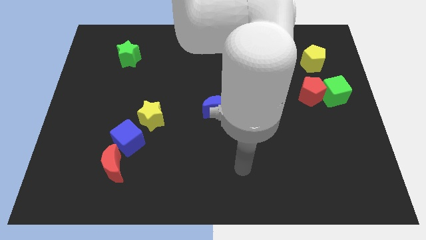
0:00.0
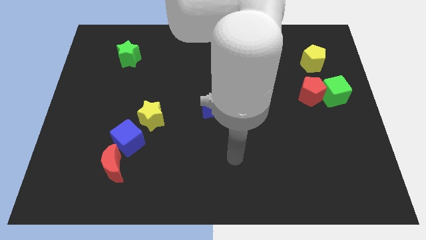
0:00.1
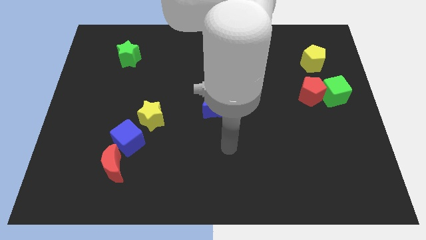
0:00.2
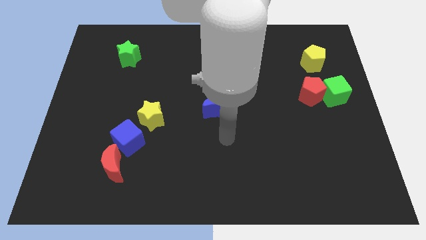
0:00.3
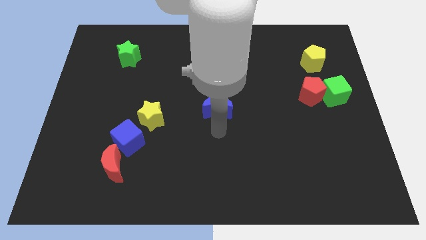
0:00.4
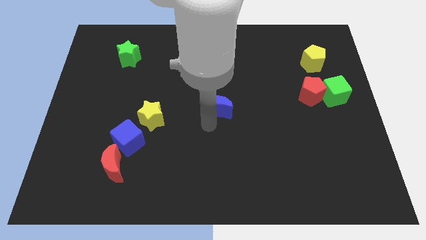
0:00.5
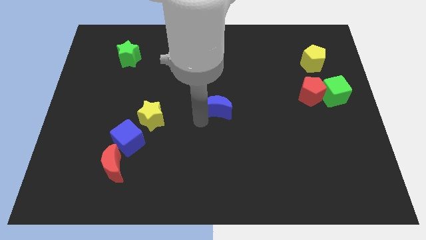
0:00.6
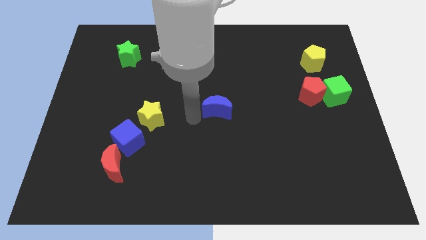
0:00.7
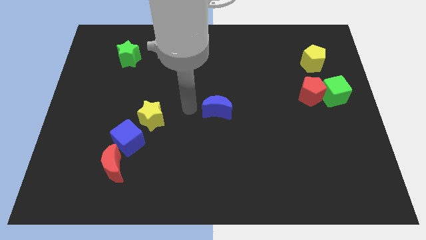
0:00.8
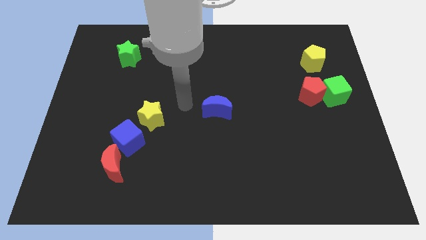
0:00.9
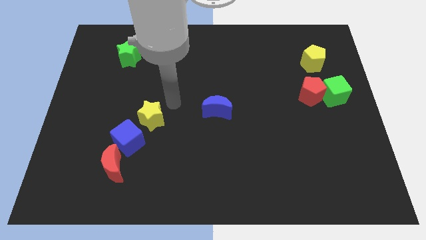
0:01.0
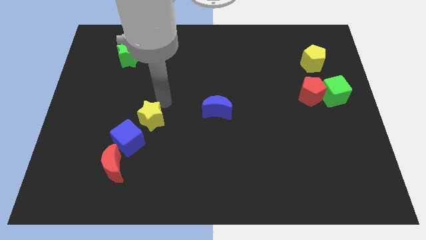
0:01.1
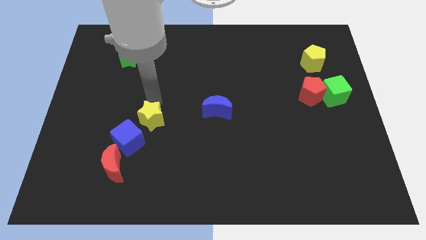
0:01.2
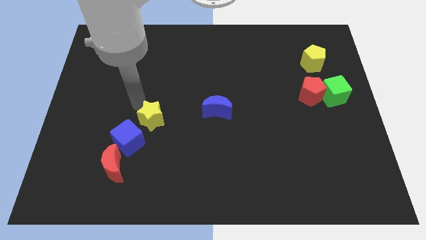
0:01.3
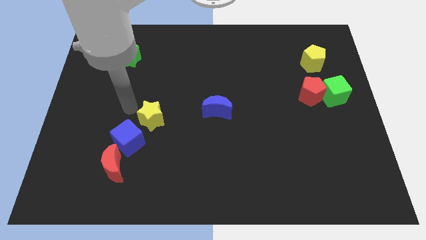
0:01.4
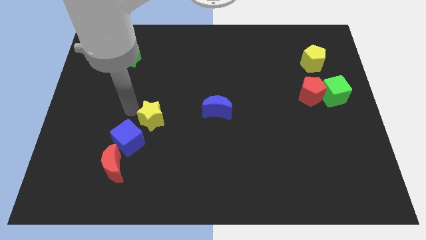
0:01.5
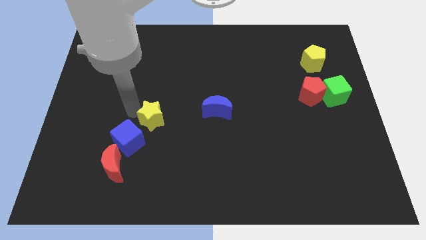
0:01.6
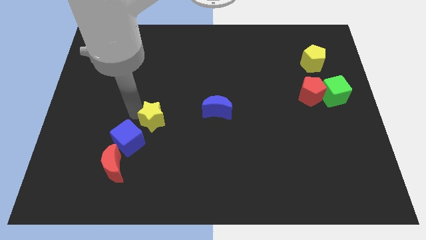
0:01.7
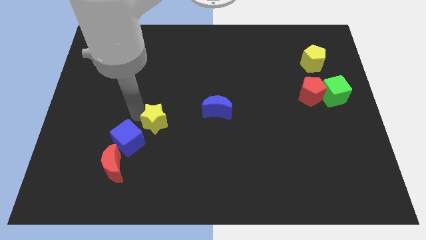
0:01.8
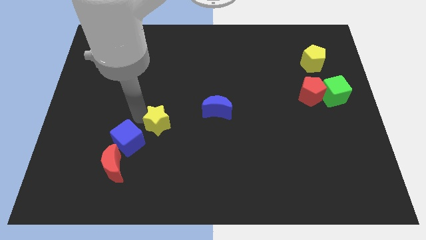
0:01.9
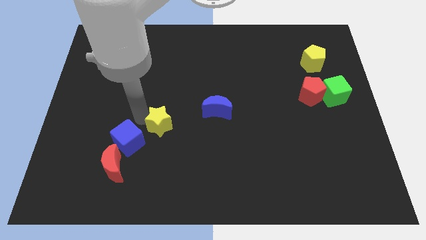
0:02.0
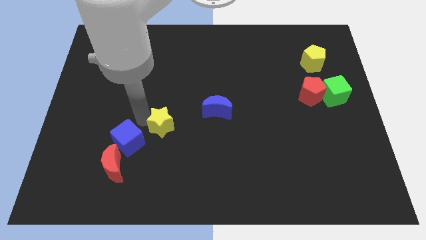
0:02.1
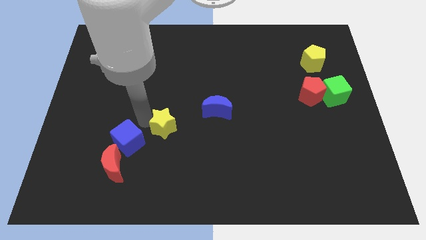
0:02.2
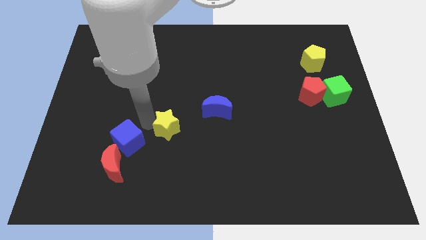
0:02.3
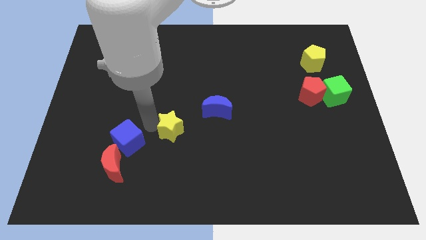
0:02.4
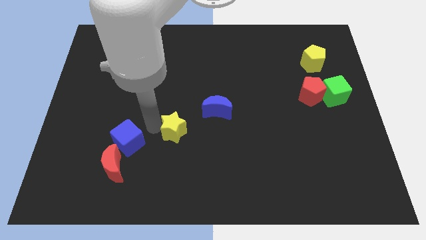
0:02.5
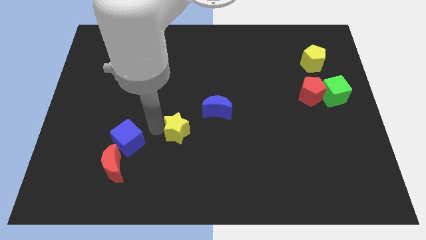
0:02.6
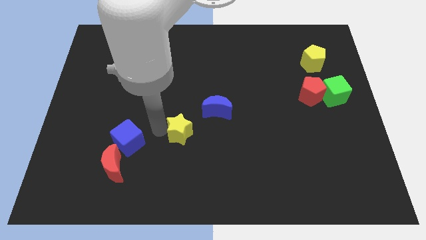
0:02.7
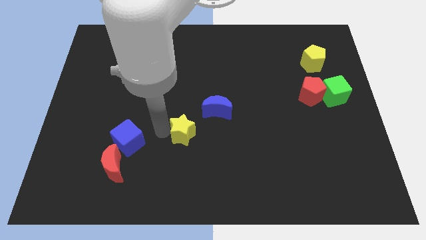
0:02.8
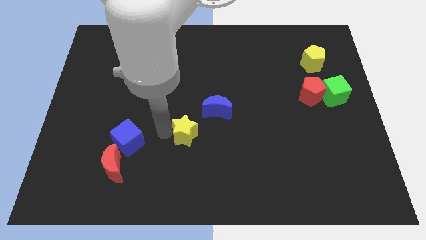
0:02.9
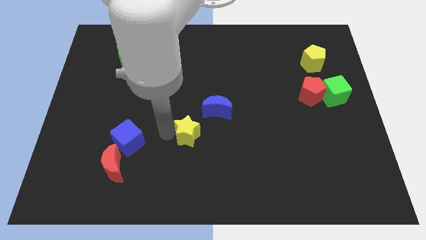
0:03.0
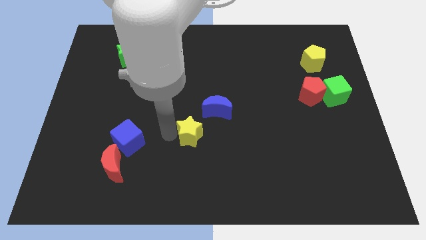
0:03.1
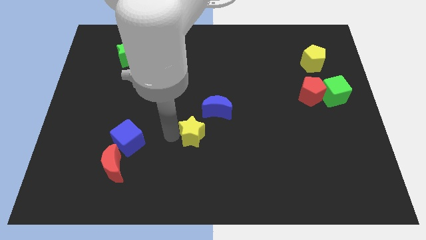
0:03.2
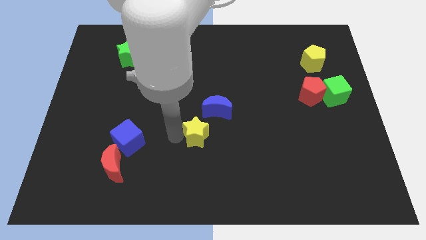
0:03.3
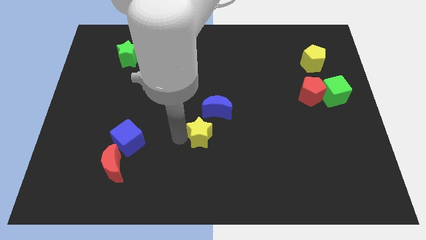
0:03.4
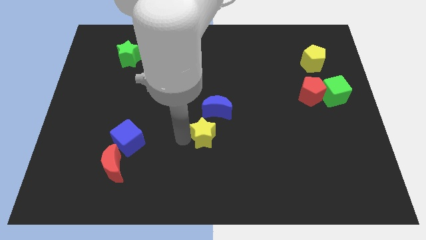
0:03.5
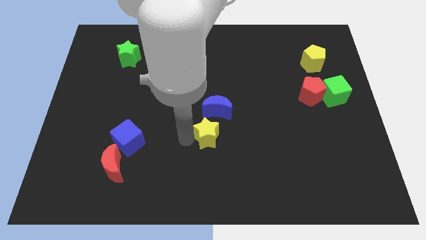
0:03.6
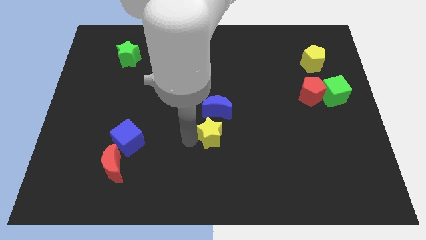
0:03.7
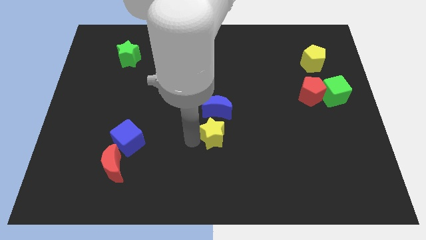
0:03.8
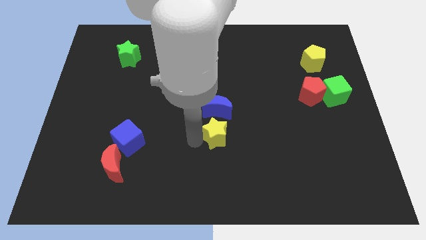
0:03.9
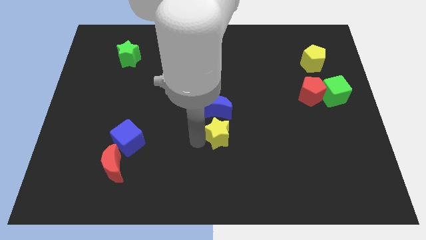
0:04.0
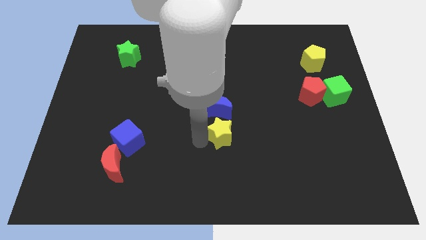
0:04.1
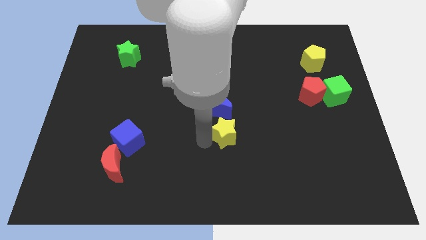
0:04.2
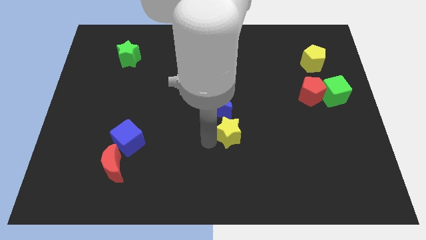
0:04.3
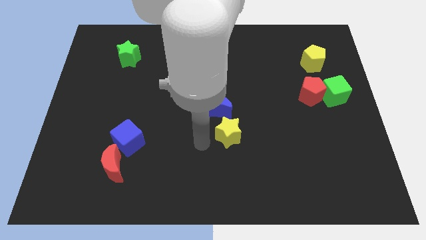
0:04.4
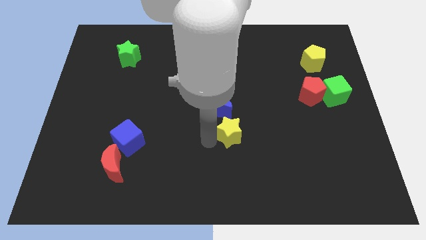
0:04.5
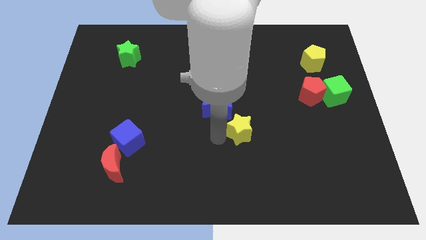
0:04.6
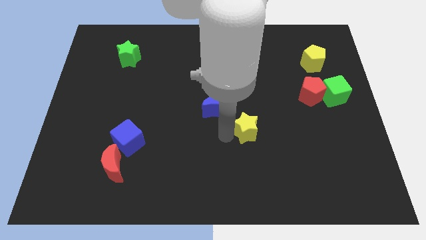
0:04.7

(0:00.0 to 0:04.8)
push the yellow star right

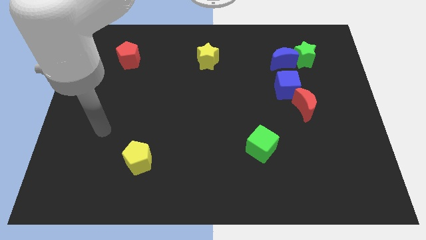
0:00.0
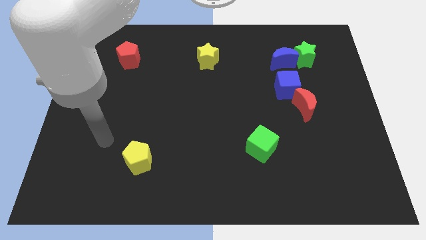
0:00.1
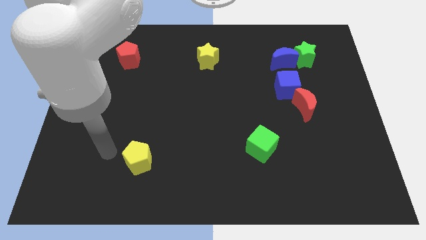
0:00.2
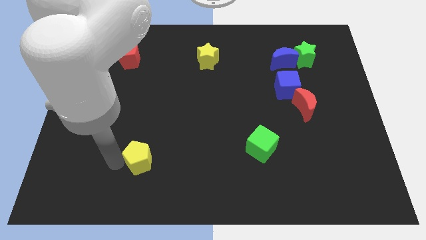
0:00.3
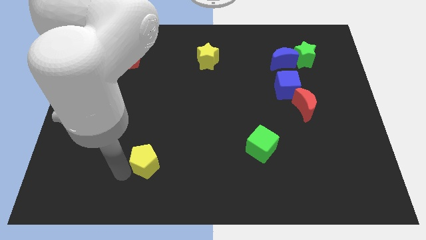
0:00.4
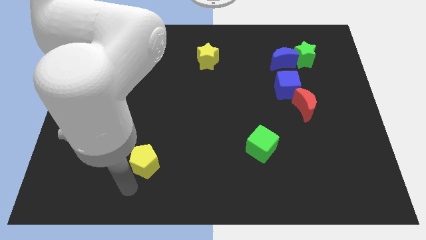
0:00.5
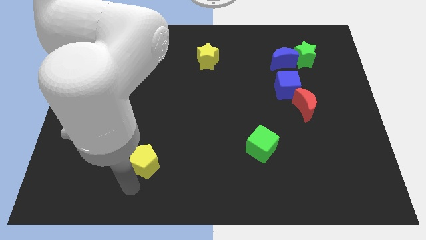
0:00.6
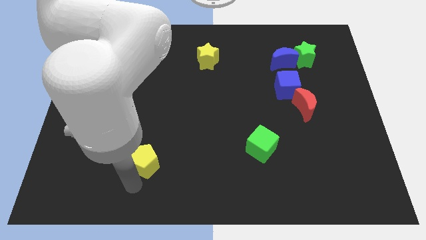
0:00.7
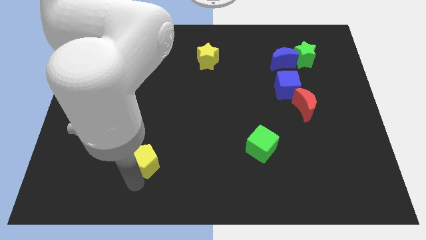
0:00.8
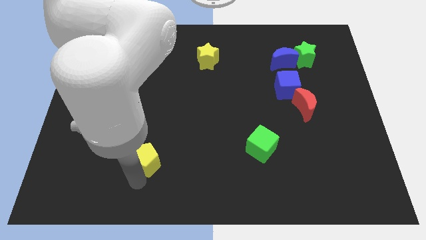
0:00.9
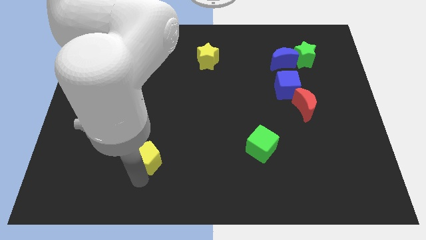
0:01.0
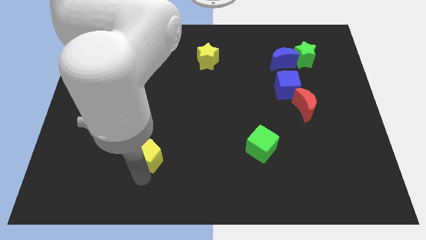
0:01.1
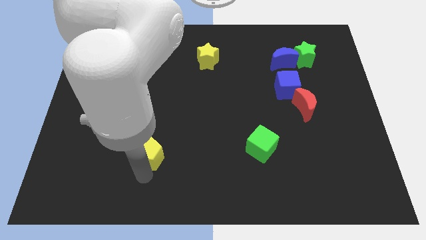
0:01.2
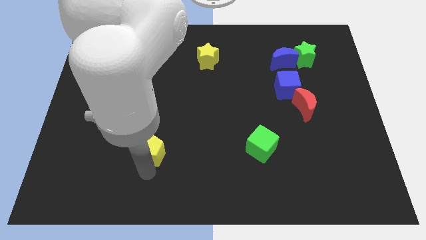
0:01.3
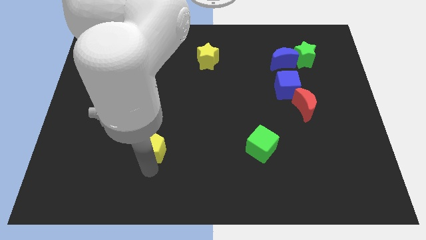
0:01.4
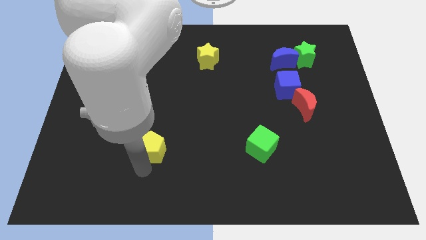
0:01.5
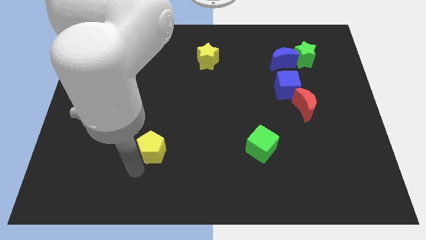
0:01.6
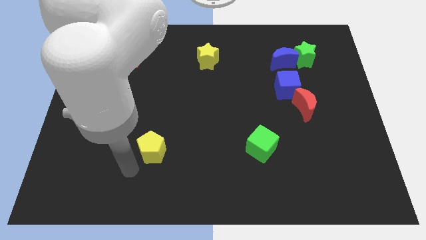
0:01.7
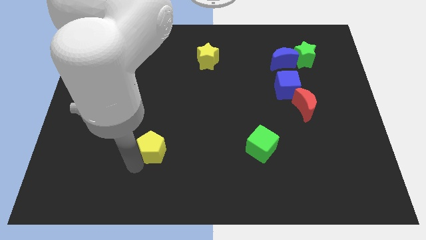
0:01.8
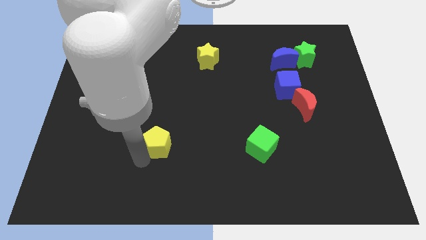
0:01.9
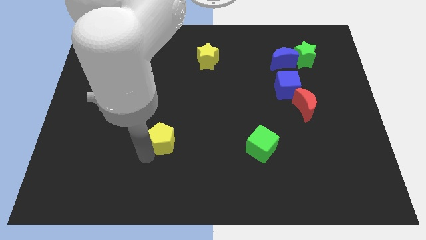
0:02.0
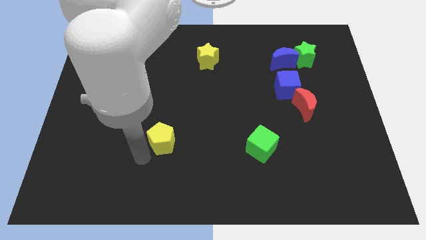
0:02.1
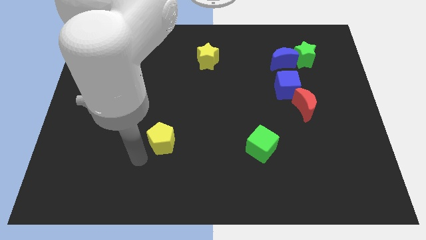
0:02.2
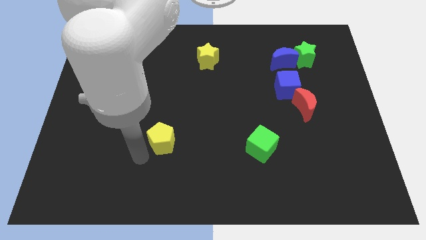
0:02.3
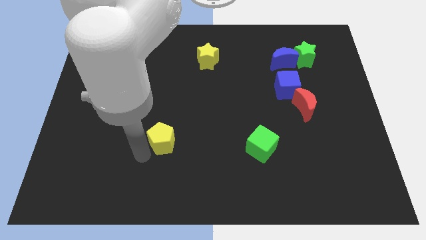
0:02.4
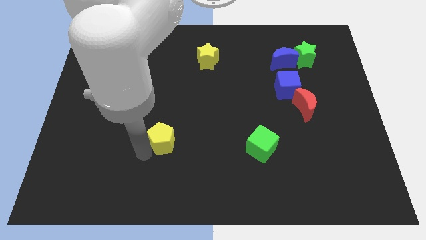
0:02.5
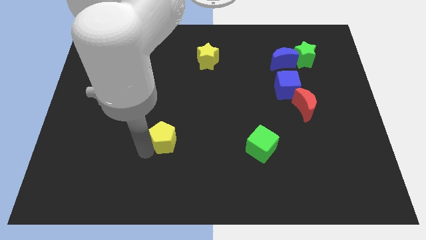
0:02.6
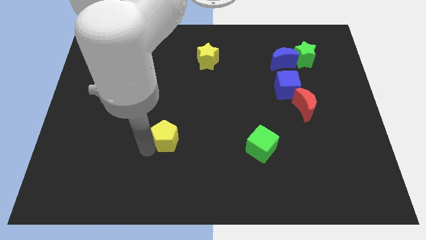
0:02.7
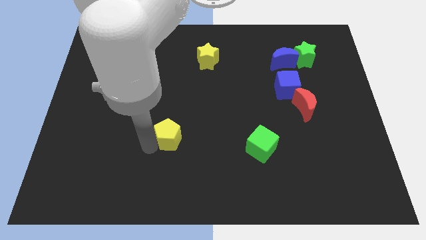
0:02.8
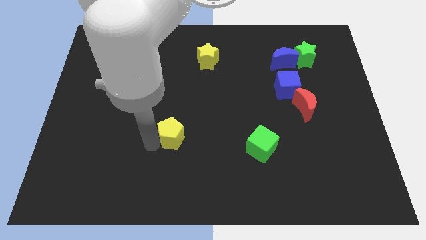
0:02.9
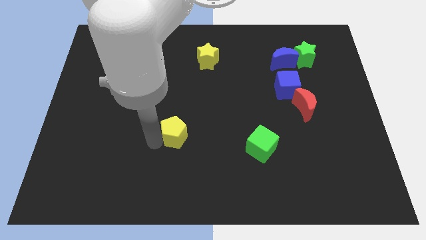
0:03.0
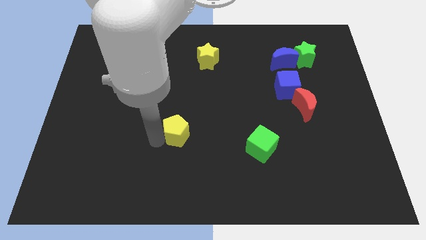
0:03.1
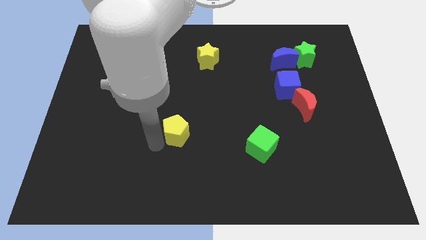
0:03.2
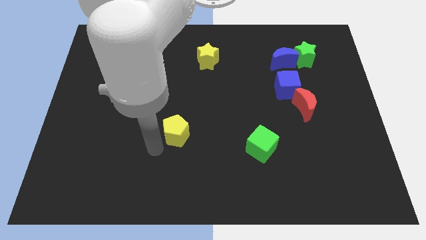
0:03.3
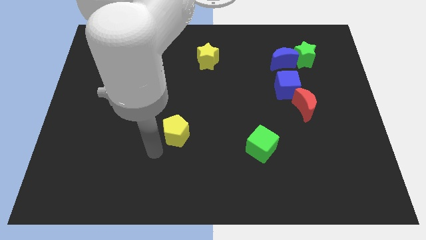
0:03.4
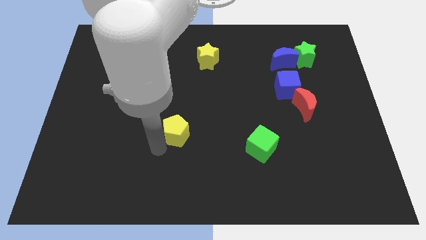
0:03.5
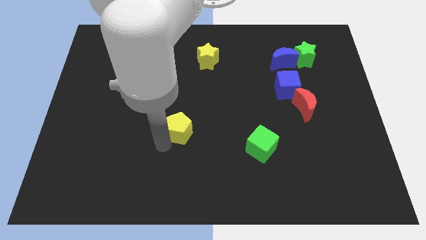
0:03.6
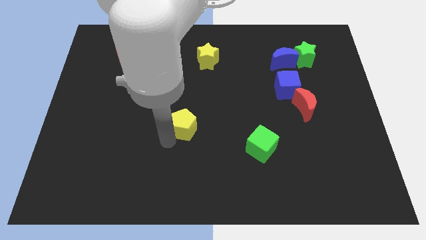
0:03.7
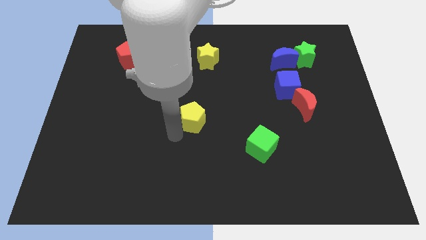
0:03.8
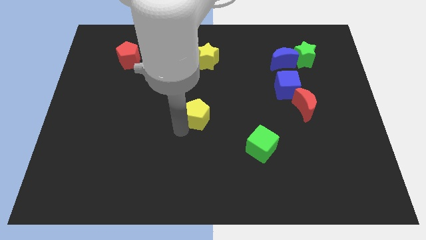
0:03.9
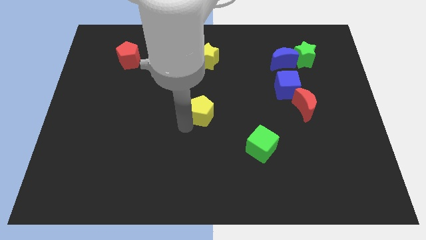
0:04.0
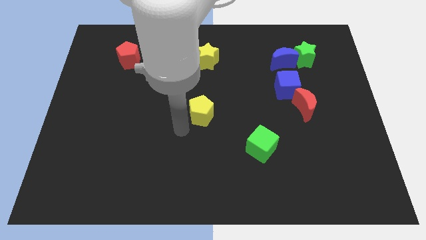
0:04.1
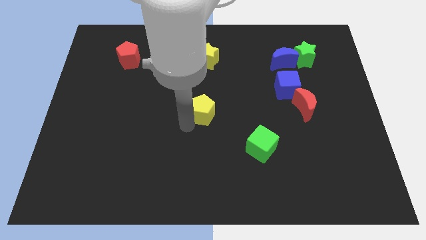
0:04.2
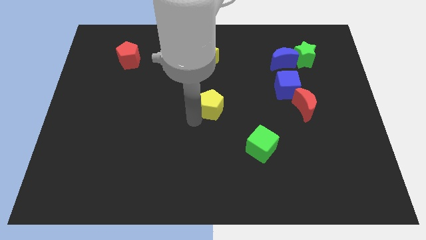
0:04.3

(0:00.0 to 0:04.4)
move the yellow pentagon upwards and right
